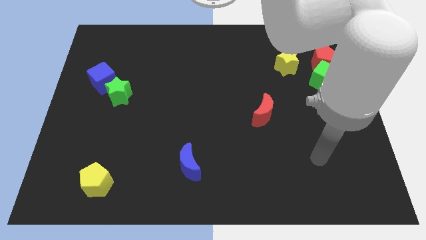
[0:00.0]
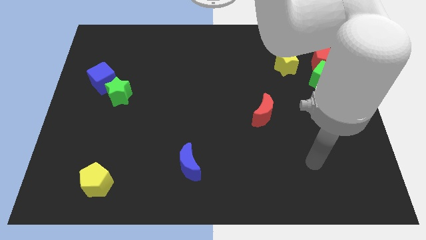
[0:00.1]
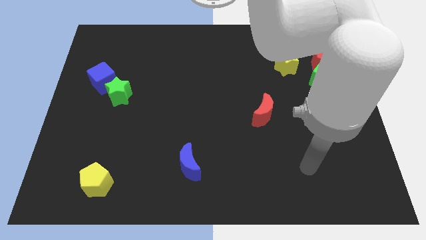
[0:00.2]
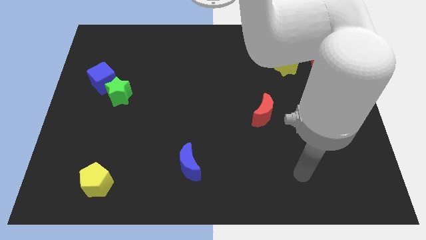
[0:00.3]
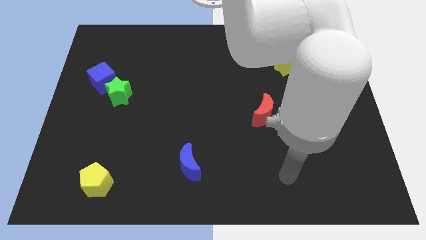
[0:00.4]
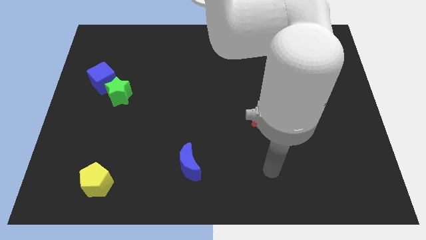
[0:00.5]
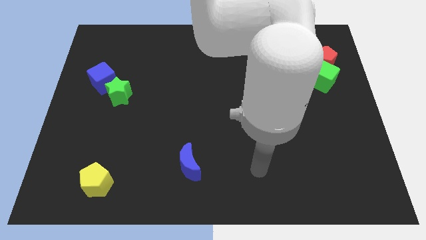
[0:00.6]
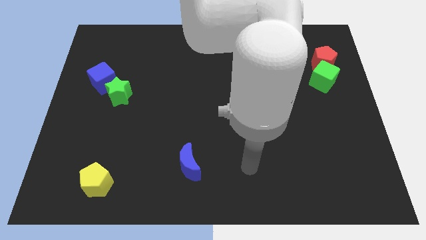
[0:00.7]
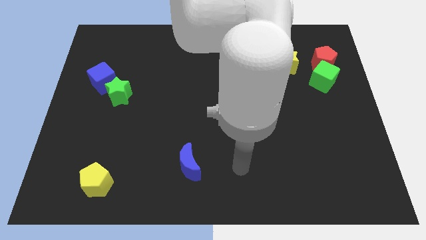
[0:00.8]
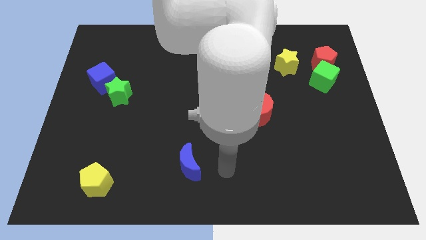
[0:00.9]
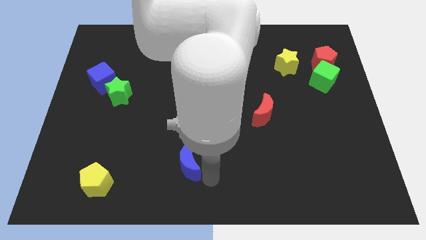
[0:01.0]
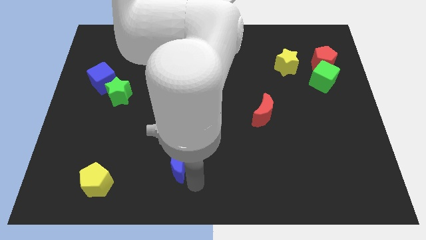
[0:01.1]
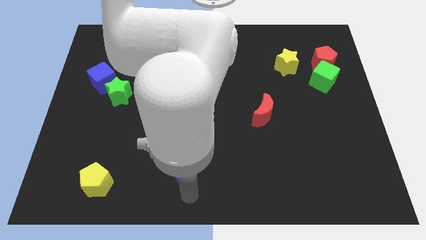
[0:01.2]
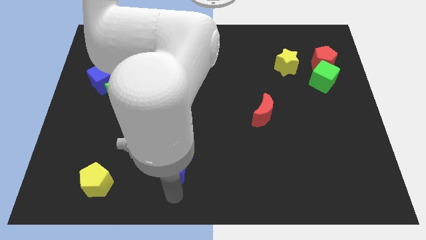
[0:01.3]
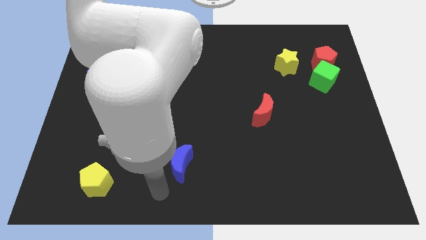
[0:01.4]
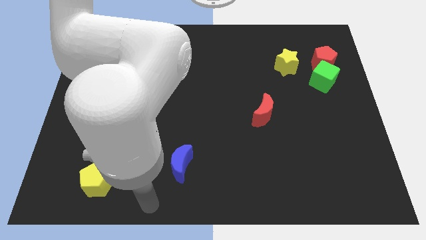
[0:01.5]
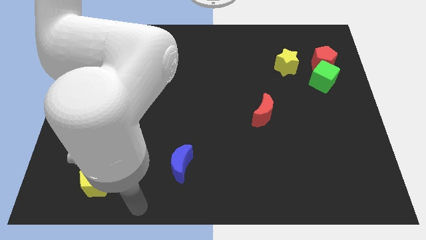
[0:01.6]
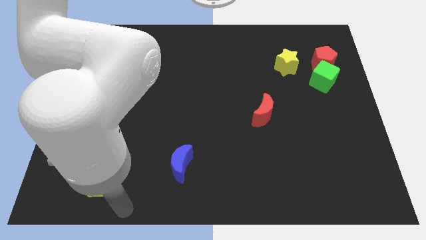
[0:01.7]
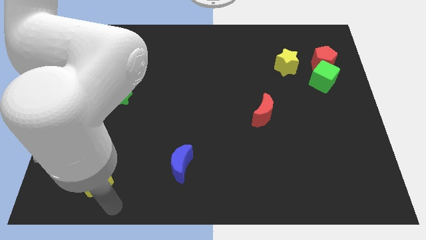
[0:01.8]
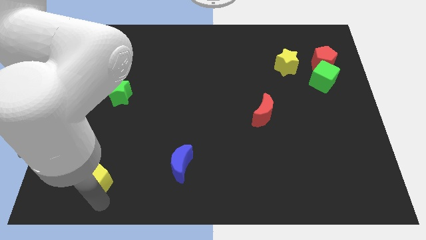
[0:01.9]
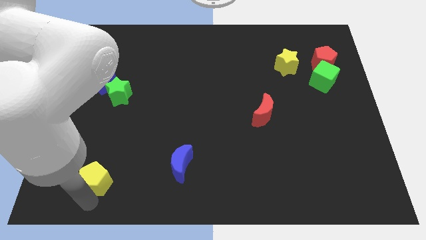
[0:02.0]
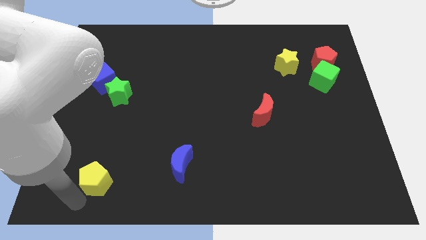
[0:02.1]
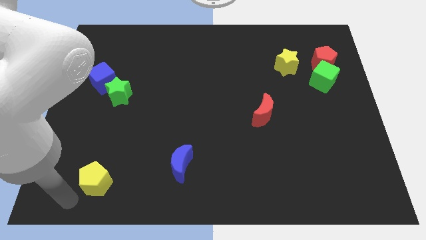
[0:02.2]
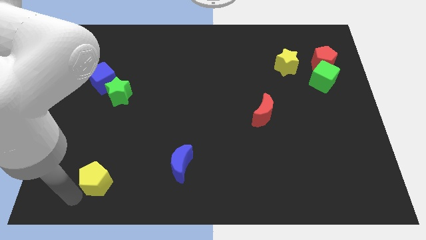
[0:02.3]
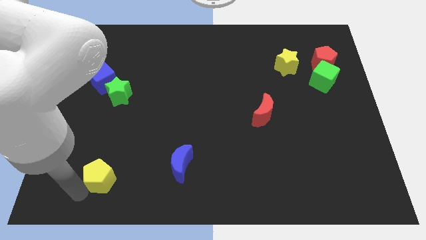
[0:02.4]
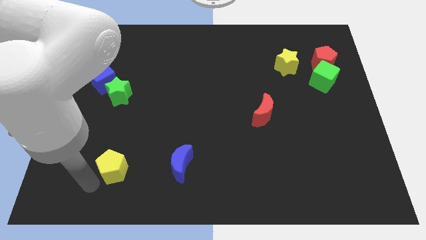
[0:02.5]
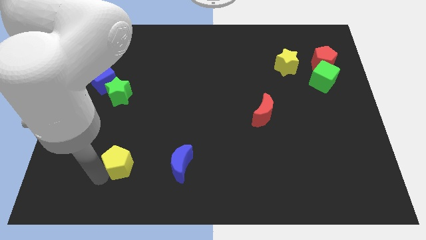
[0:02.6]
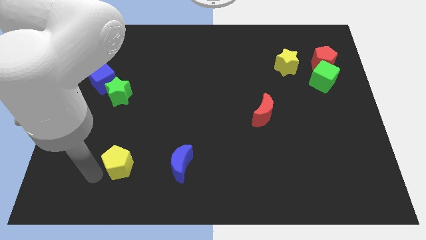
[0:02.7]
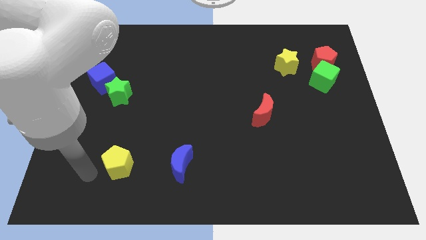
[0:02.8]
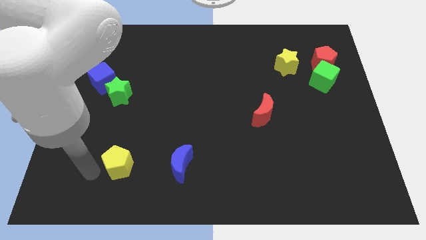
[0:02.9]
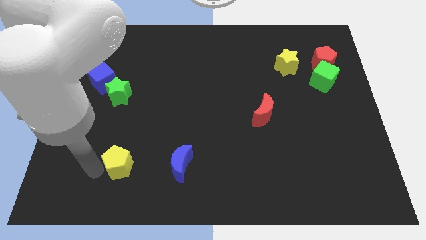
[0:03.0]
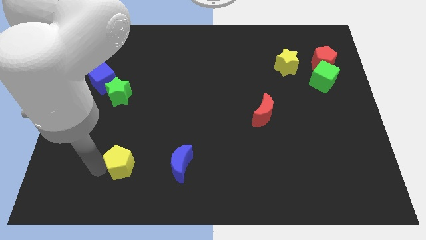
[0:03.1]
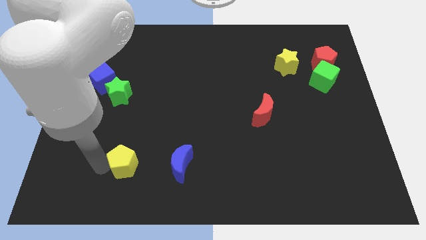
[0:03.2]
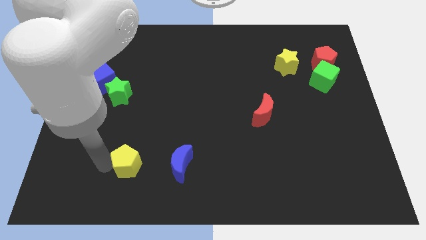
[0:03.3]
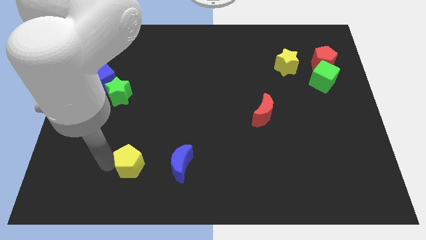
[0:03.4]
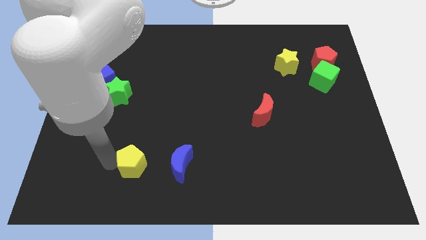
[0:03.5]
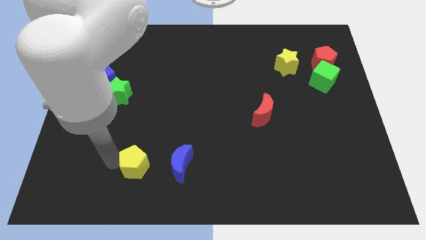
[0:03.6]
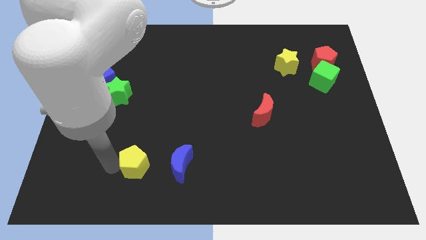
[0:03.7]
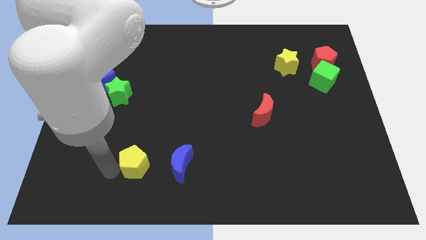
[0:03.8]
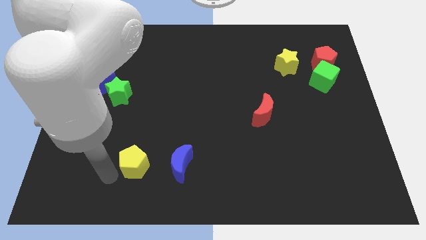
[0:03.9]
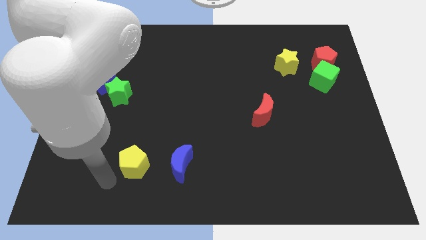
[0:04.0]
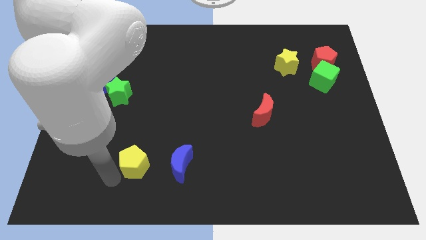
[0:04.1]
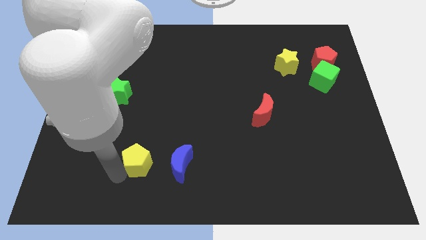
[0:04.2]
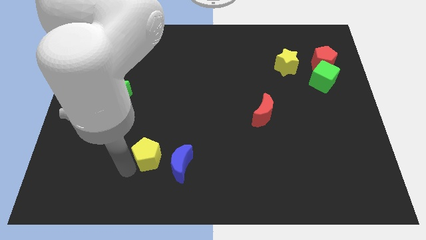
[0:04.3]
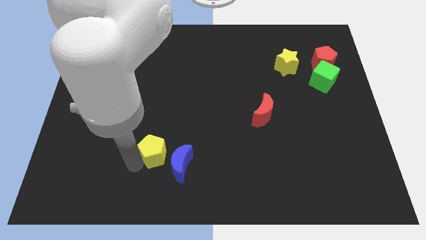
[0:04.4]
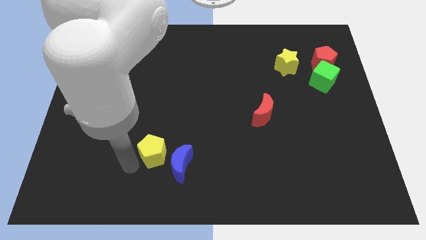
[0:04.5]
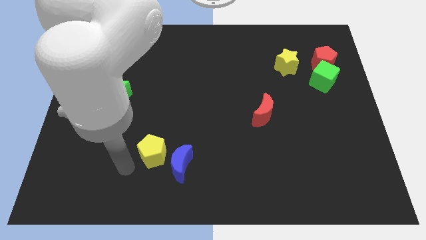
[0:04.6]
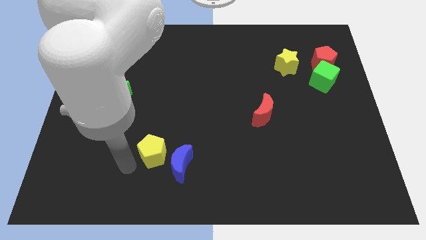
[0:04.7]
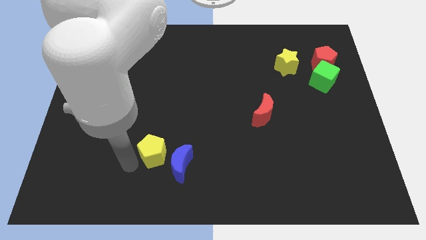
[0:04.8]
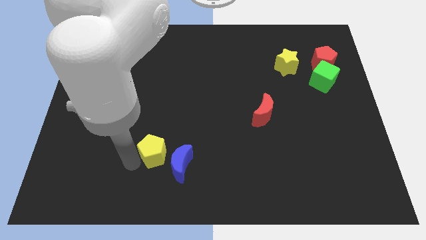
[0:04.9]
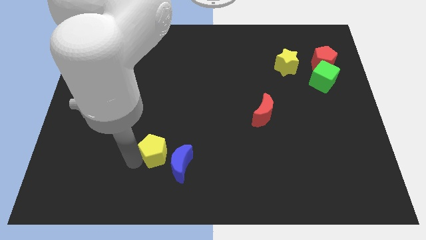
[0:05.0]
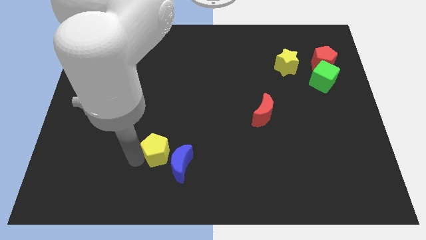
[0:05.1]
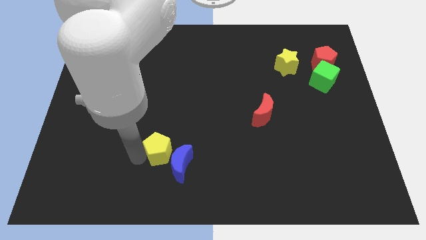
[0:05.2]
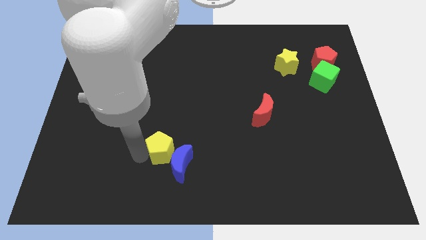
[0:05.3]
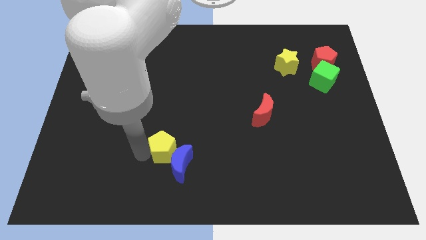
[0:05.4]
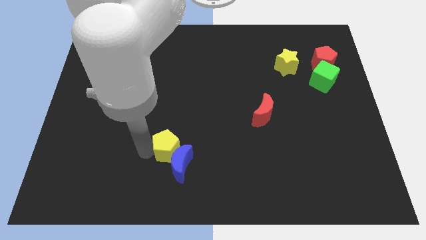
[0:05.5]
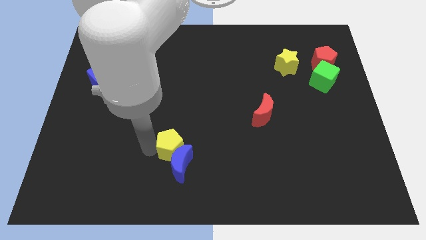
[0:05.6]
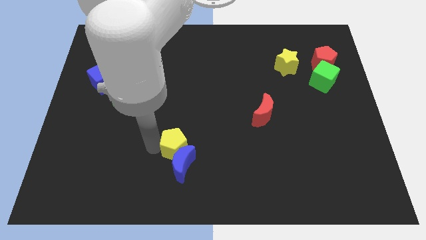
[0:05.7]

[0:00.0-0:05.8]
move the yellow pentagon to the top right side of the blue moon

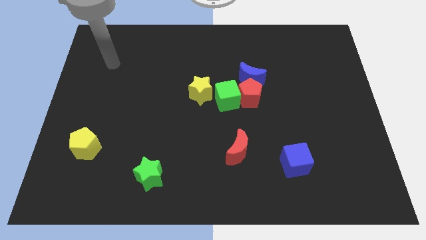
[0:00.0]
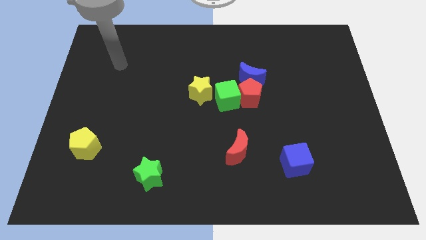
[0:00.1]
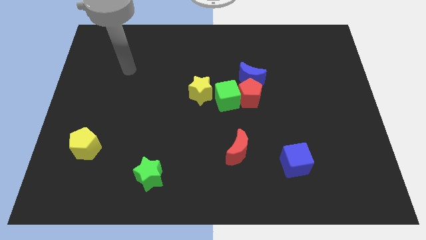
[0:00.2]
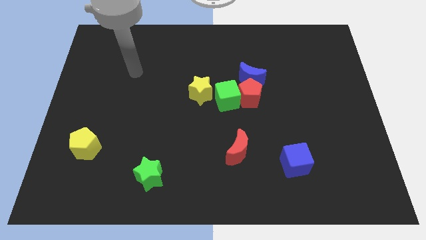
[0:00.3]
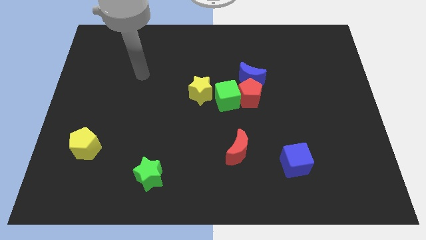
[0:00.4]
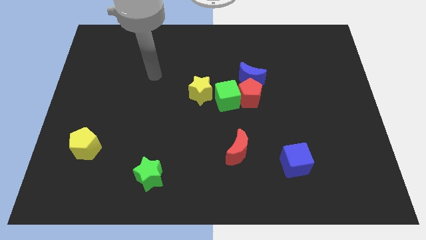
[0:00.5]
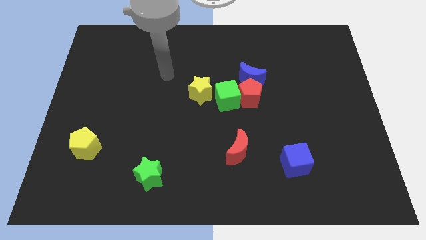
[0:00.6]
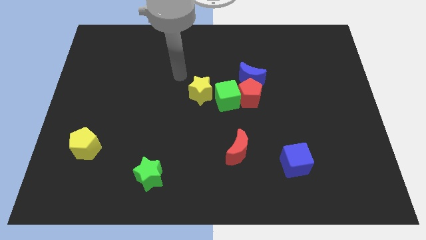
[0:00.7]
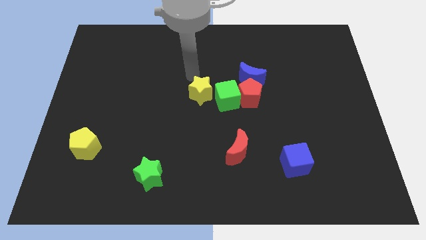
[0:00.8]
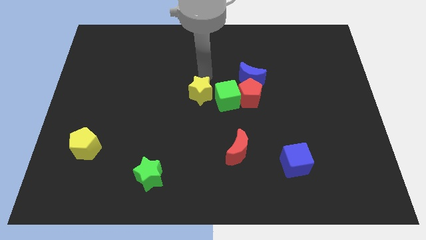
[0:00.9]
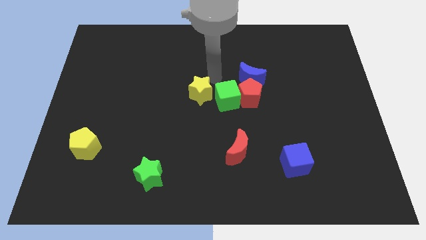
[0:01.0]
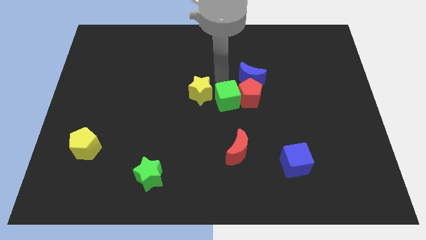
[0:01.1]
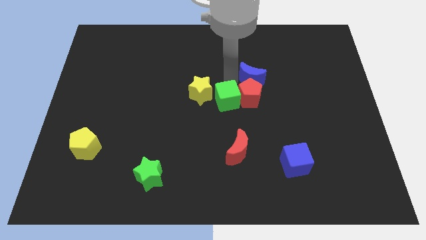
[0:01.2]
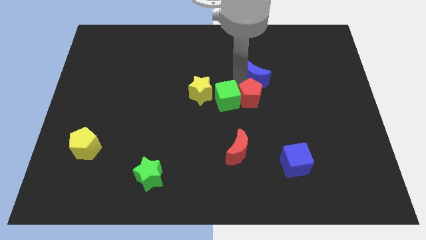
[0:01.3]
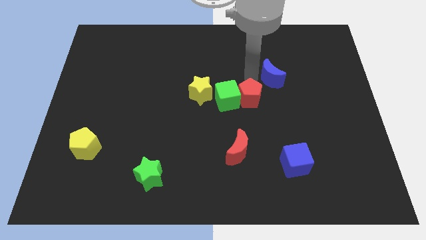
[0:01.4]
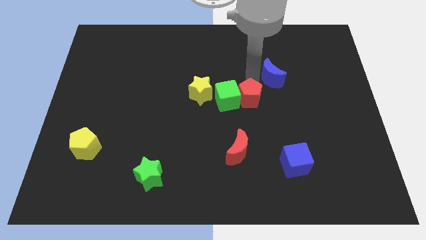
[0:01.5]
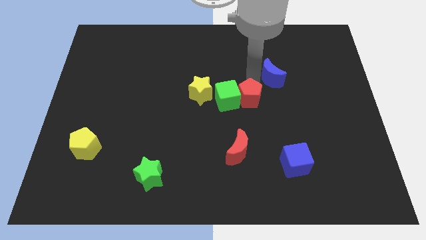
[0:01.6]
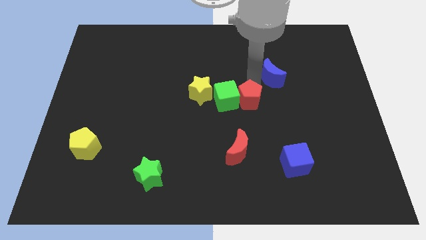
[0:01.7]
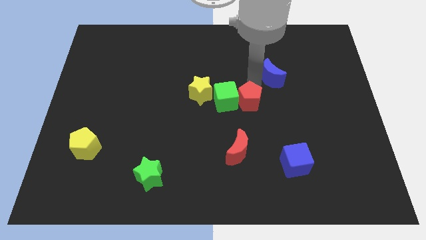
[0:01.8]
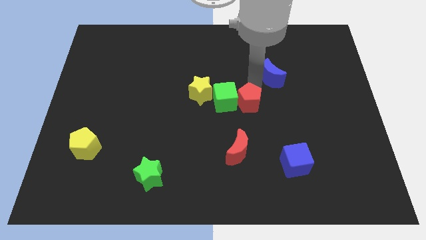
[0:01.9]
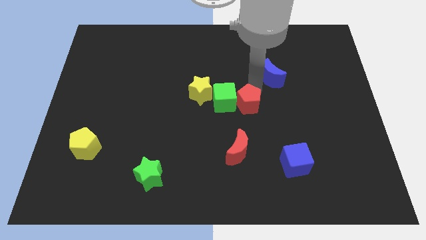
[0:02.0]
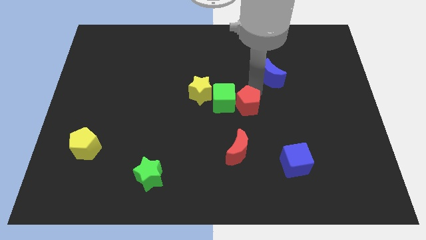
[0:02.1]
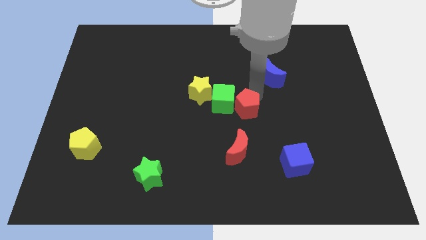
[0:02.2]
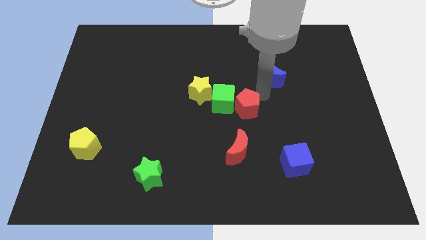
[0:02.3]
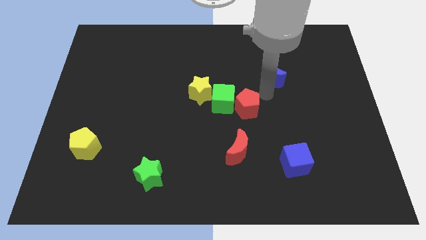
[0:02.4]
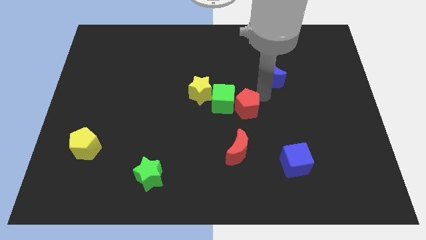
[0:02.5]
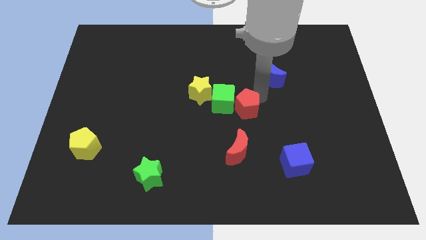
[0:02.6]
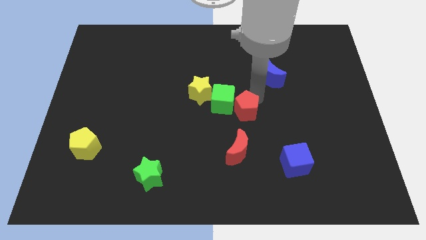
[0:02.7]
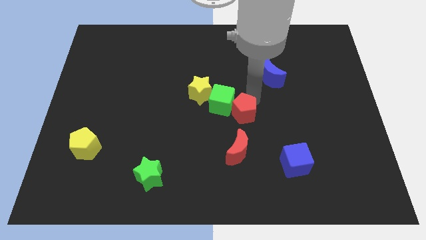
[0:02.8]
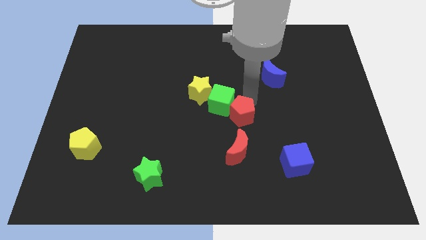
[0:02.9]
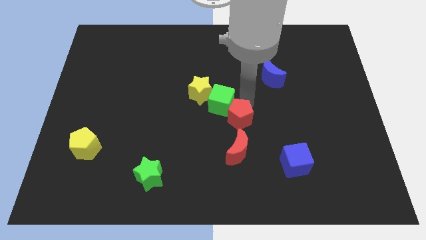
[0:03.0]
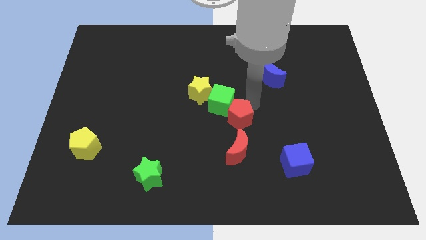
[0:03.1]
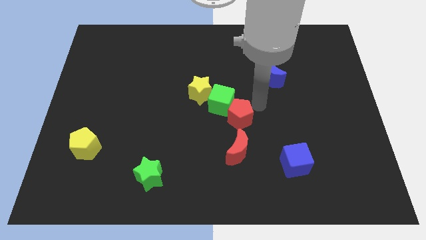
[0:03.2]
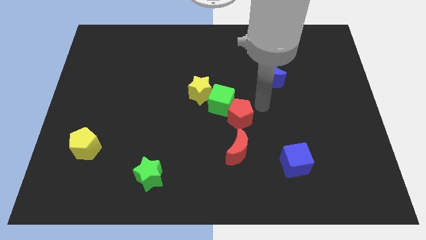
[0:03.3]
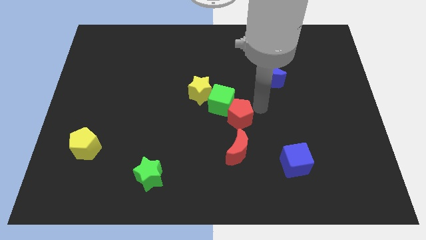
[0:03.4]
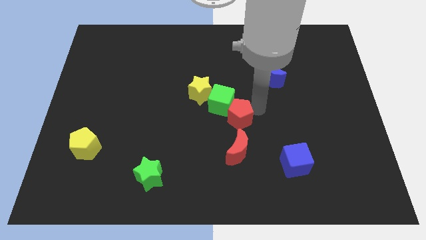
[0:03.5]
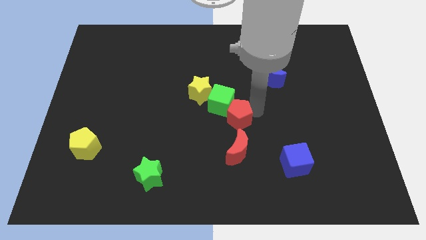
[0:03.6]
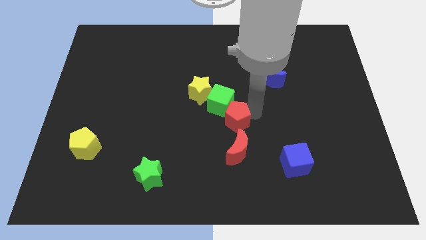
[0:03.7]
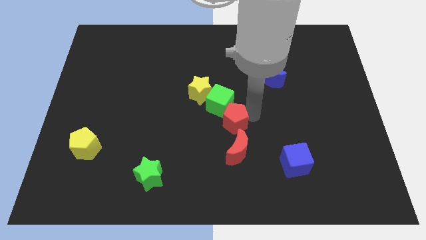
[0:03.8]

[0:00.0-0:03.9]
move the red pentagon to the top left side of the red moon
